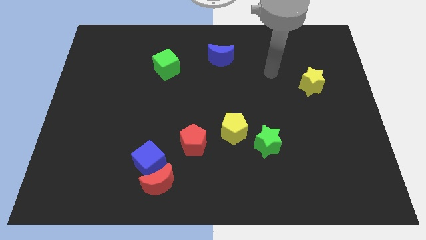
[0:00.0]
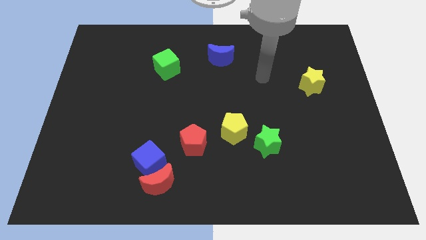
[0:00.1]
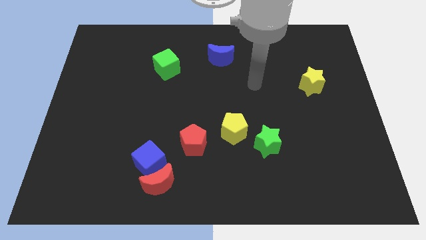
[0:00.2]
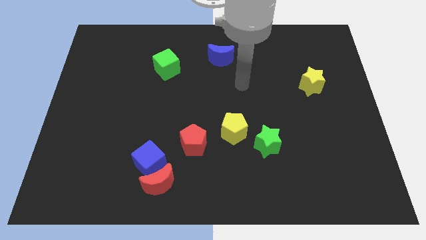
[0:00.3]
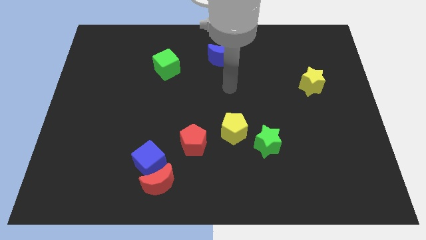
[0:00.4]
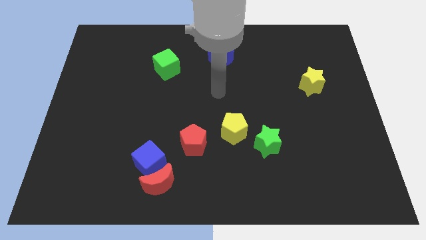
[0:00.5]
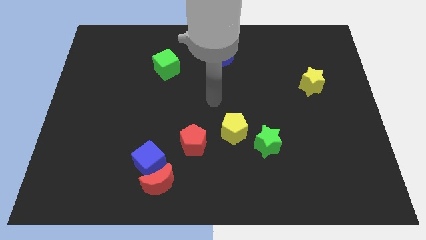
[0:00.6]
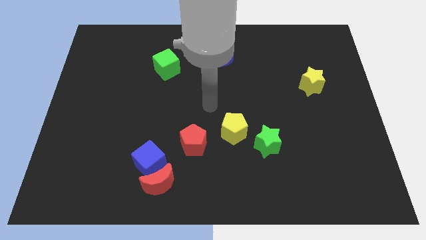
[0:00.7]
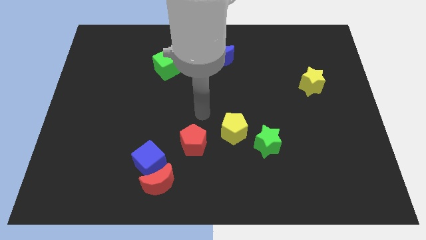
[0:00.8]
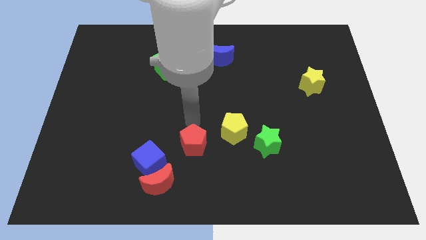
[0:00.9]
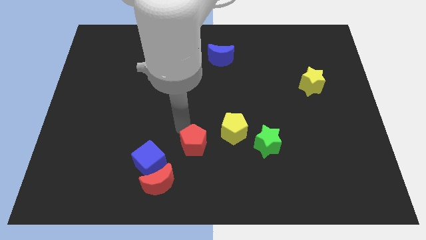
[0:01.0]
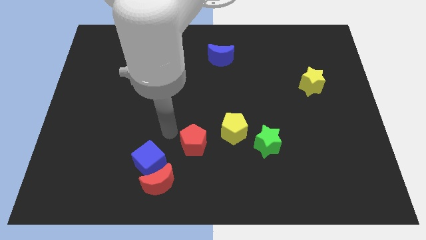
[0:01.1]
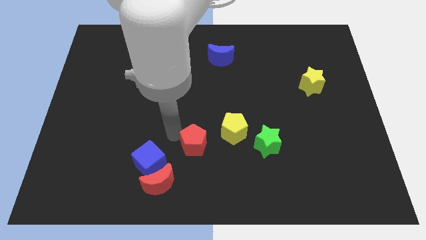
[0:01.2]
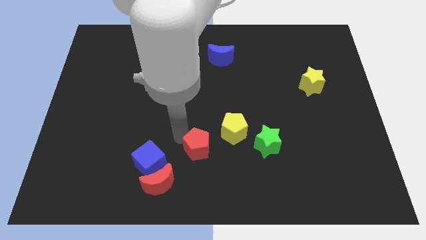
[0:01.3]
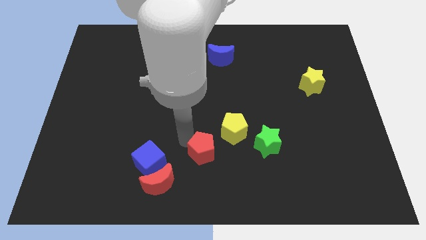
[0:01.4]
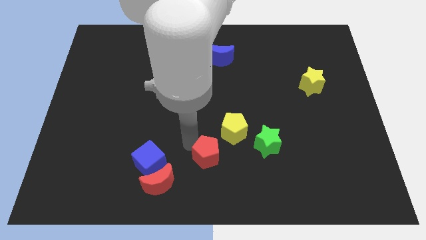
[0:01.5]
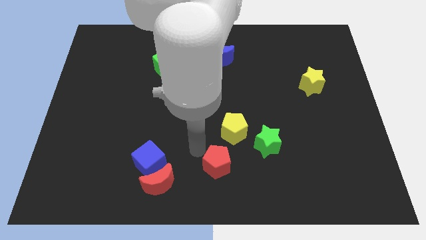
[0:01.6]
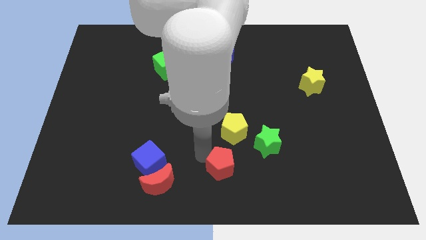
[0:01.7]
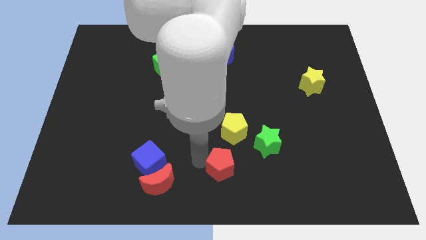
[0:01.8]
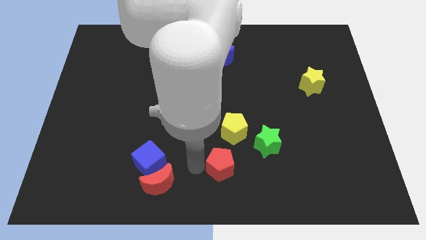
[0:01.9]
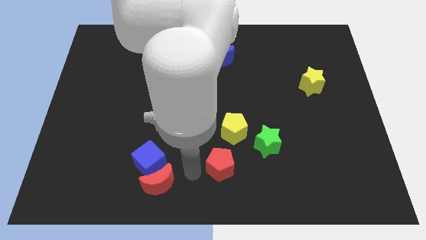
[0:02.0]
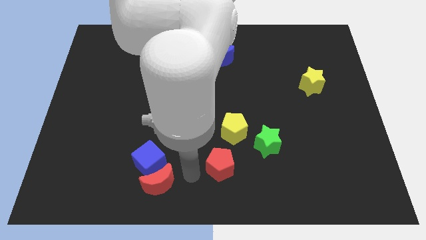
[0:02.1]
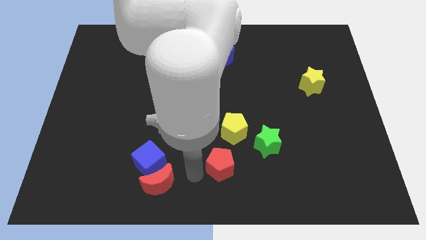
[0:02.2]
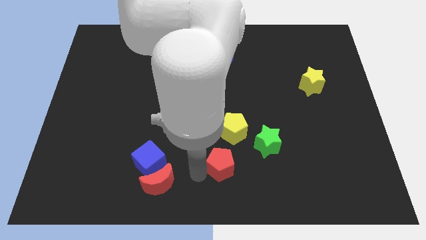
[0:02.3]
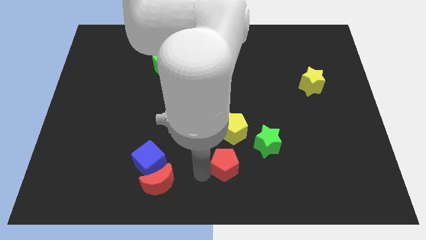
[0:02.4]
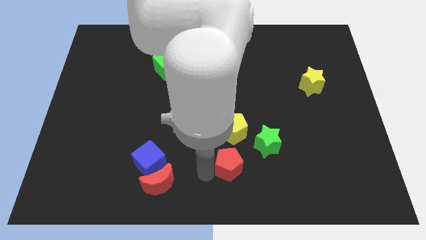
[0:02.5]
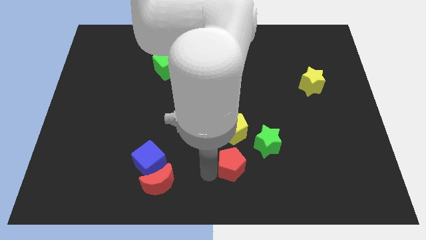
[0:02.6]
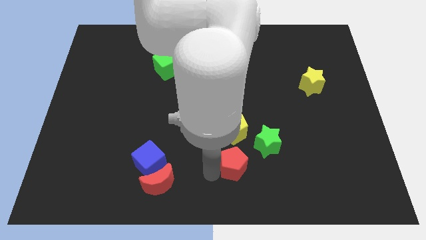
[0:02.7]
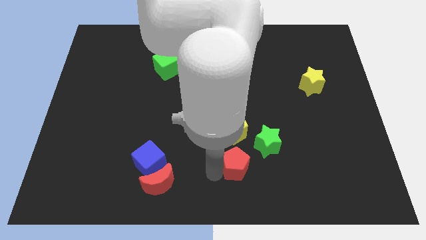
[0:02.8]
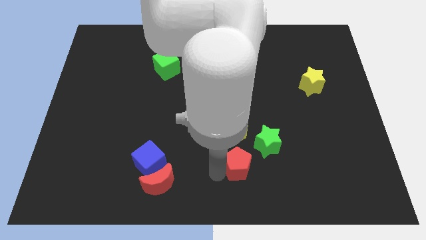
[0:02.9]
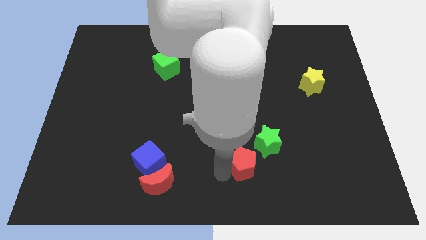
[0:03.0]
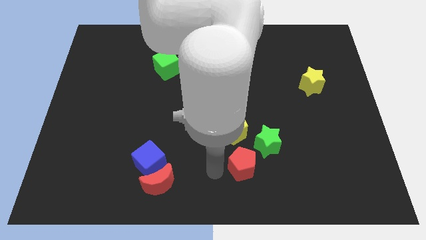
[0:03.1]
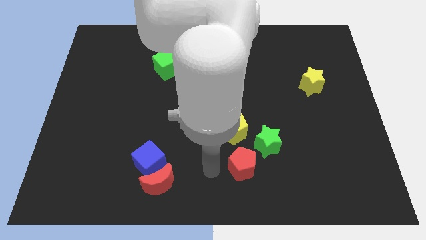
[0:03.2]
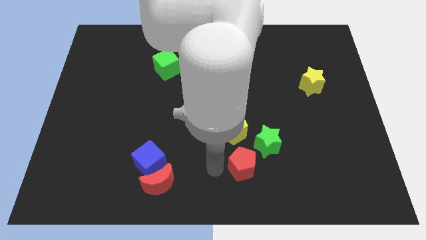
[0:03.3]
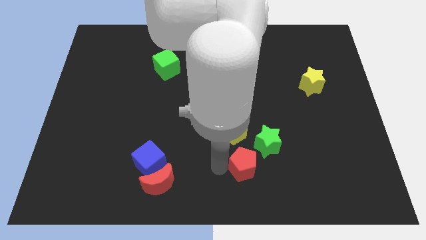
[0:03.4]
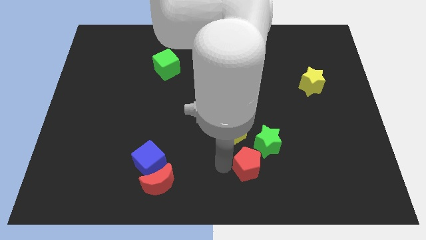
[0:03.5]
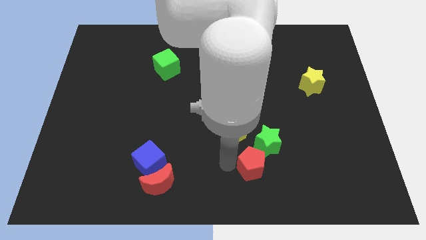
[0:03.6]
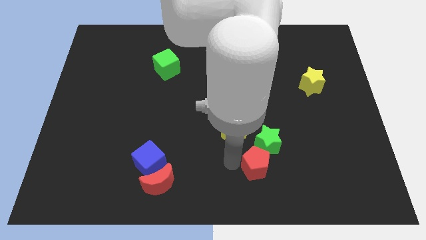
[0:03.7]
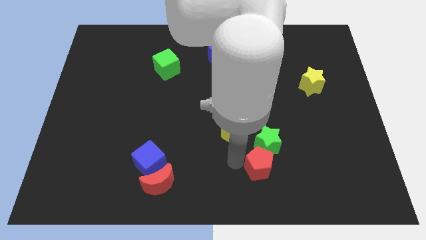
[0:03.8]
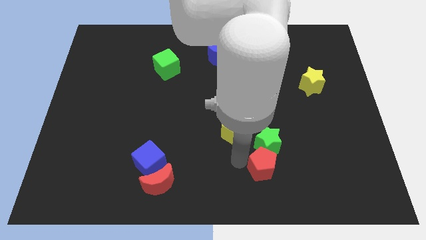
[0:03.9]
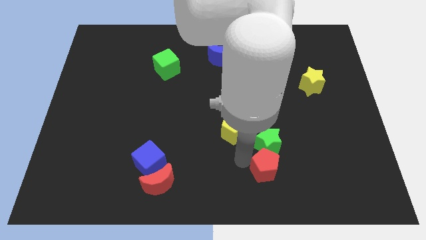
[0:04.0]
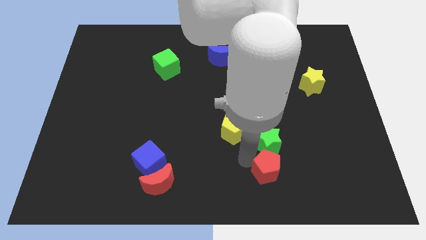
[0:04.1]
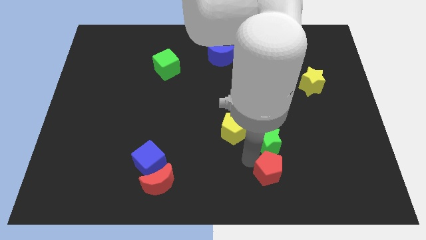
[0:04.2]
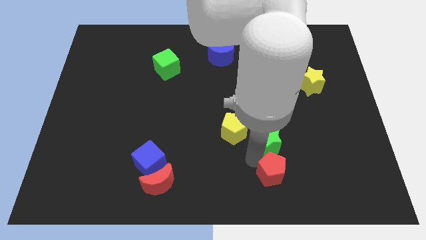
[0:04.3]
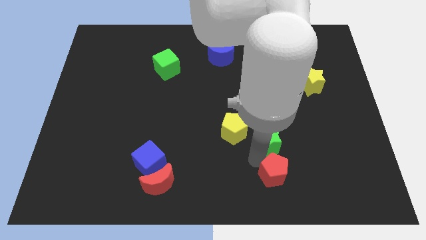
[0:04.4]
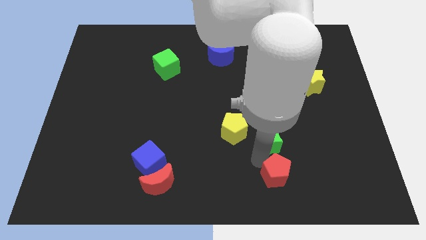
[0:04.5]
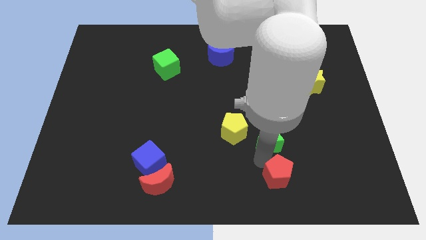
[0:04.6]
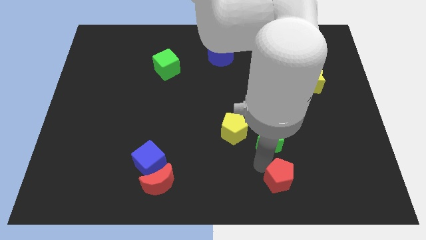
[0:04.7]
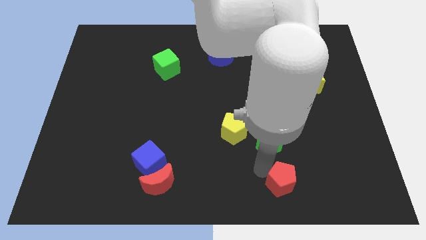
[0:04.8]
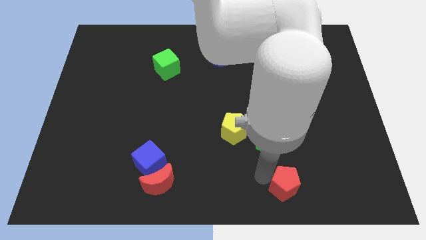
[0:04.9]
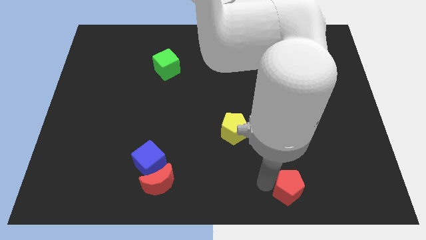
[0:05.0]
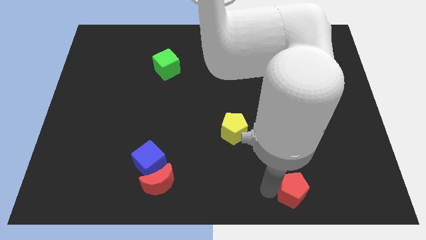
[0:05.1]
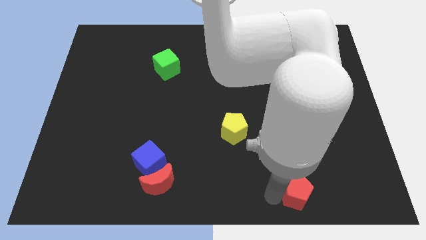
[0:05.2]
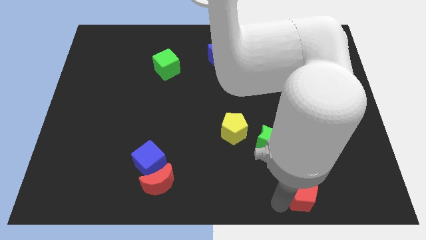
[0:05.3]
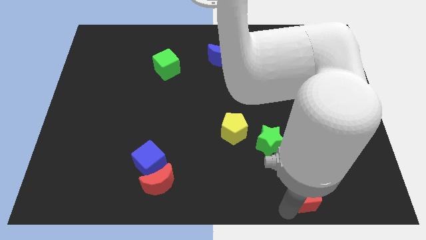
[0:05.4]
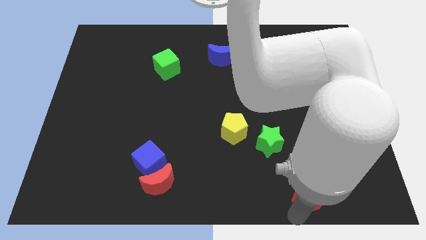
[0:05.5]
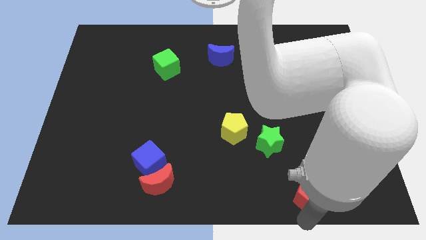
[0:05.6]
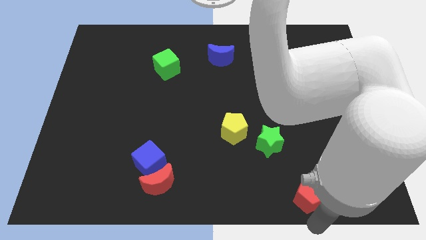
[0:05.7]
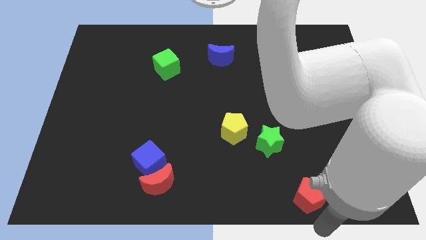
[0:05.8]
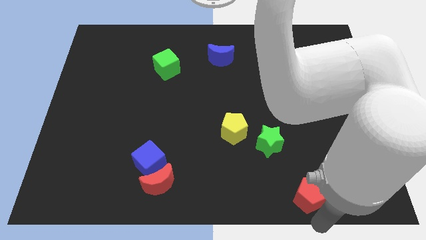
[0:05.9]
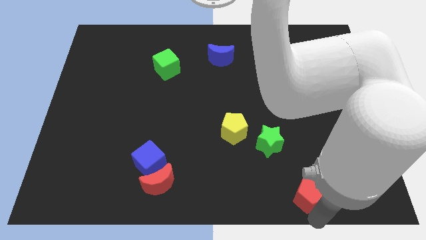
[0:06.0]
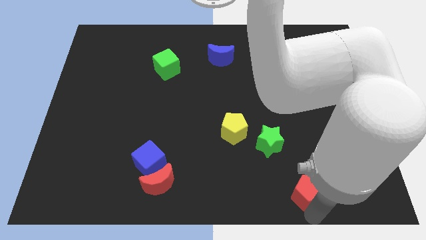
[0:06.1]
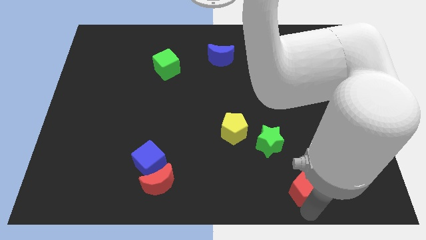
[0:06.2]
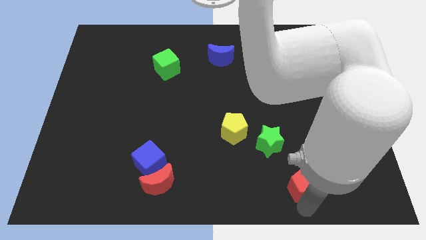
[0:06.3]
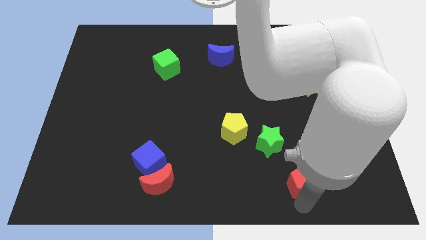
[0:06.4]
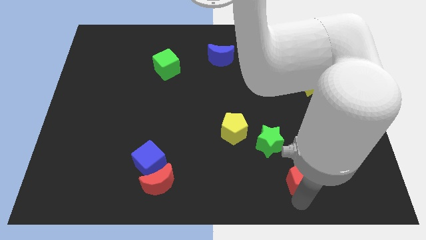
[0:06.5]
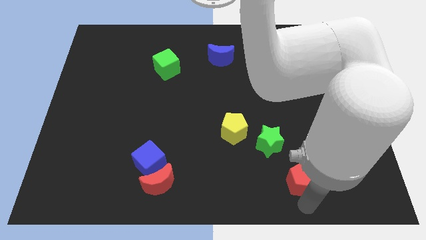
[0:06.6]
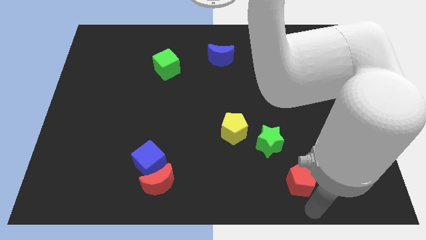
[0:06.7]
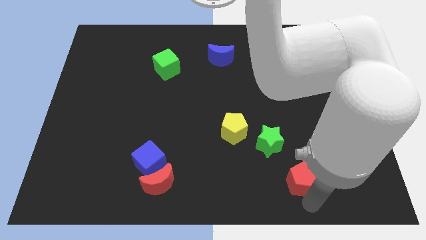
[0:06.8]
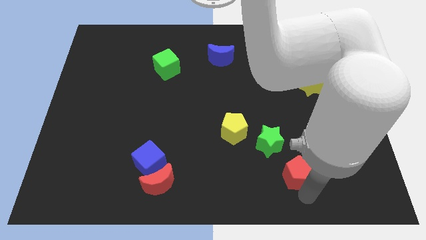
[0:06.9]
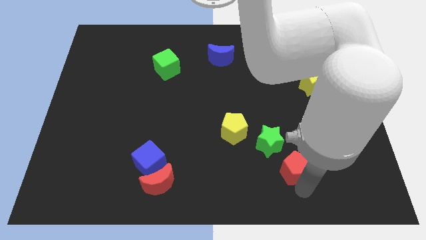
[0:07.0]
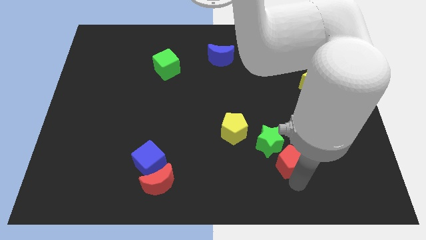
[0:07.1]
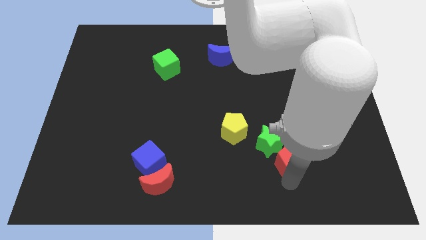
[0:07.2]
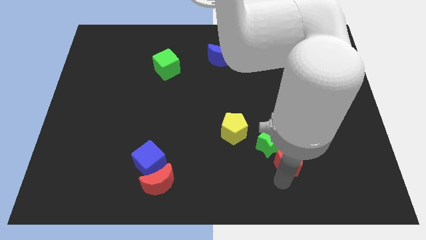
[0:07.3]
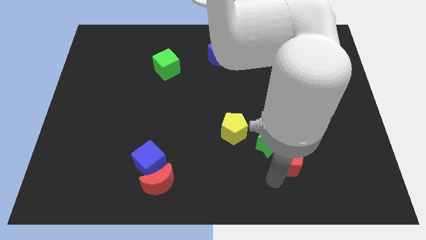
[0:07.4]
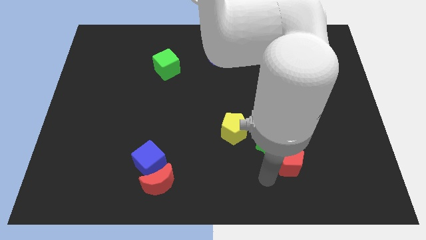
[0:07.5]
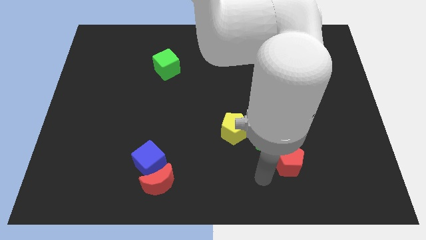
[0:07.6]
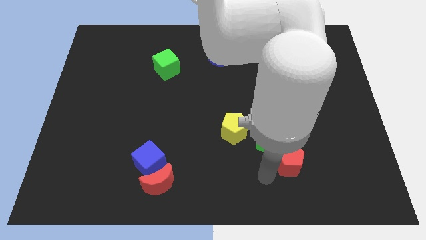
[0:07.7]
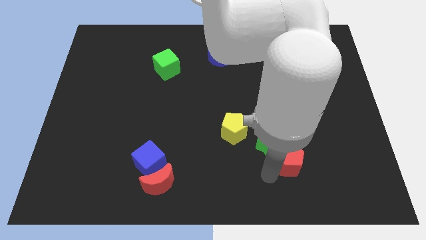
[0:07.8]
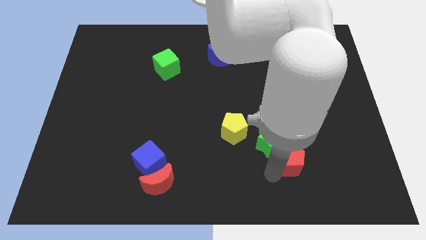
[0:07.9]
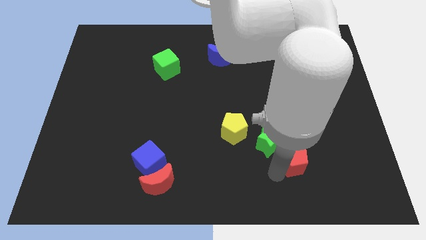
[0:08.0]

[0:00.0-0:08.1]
push the red pentagon to the right

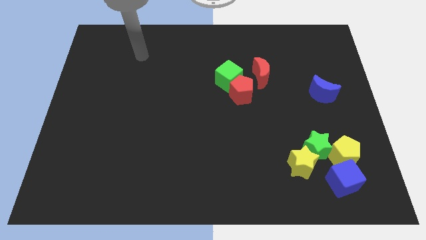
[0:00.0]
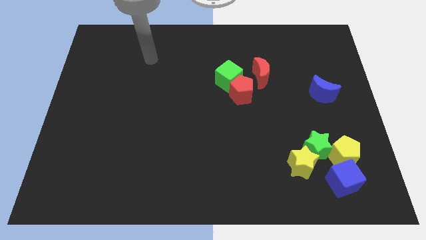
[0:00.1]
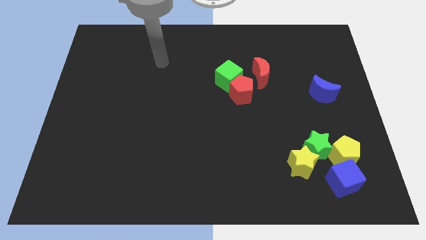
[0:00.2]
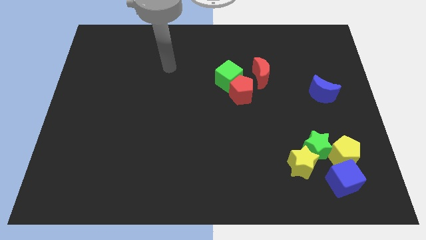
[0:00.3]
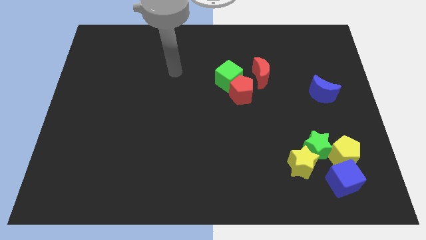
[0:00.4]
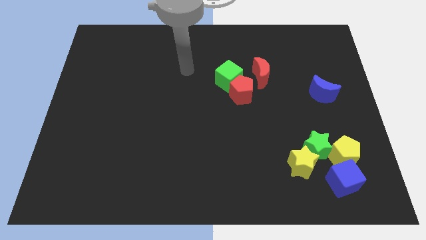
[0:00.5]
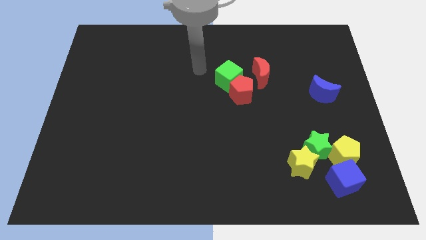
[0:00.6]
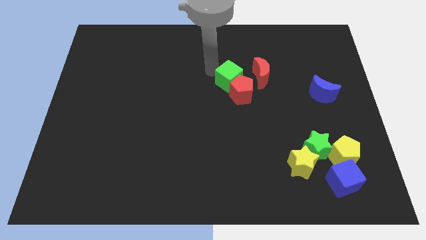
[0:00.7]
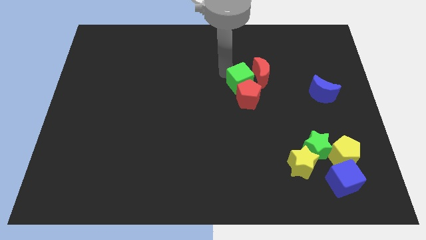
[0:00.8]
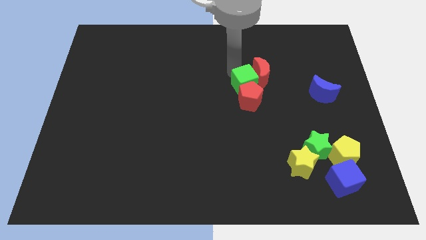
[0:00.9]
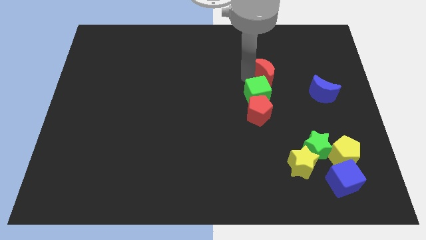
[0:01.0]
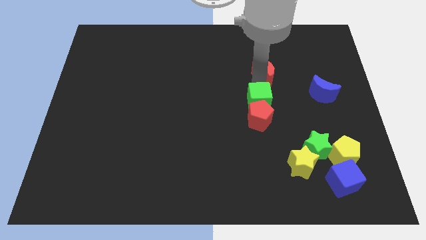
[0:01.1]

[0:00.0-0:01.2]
slide the red pentagon down a little
